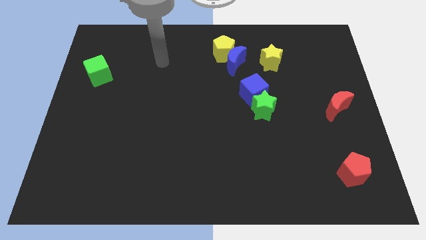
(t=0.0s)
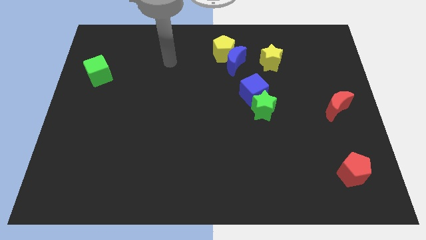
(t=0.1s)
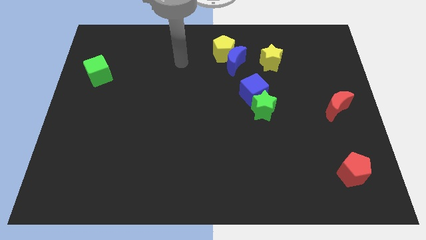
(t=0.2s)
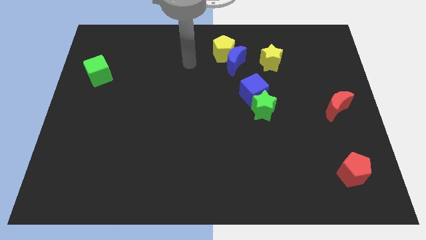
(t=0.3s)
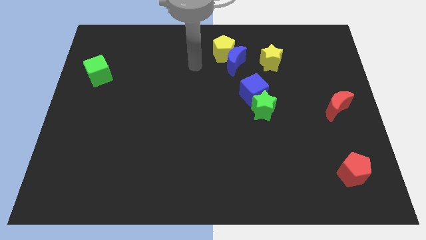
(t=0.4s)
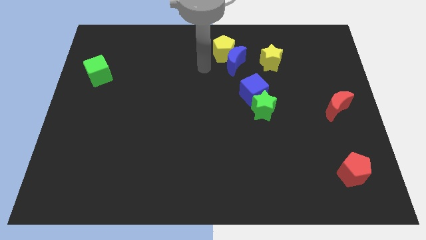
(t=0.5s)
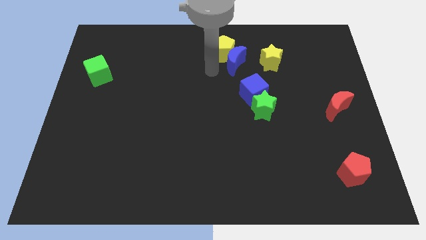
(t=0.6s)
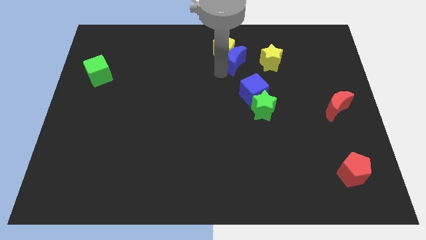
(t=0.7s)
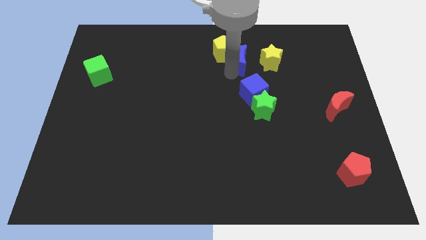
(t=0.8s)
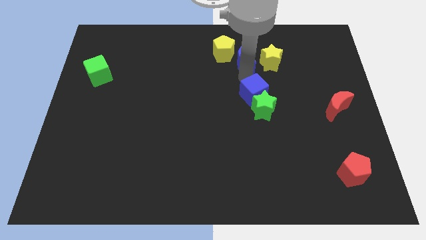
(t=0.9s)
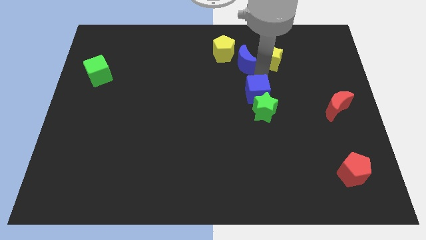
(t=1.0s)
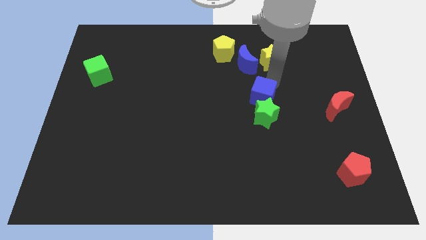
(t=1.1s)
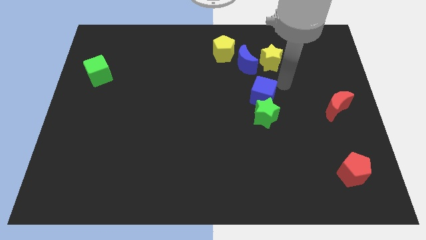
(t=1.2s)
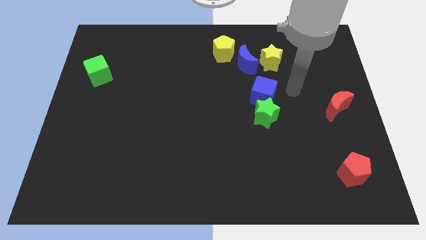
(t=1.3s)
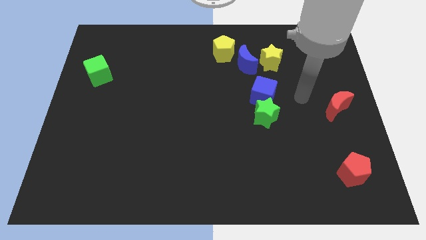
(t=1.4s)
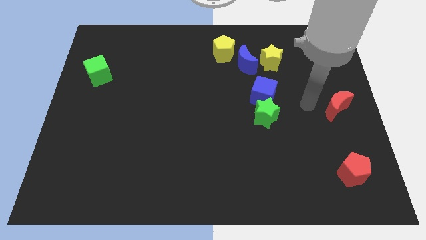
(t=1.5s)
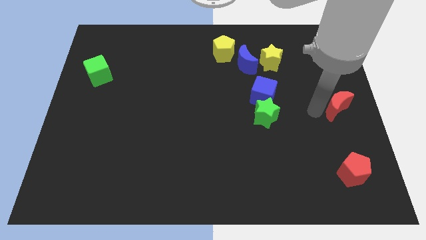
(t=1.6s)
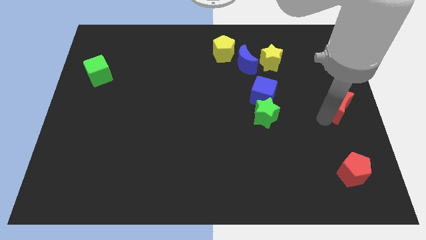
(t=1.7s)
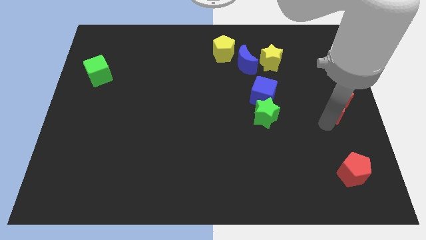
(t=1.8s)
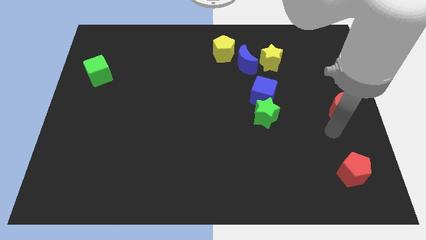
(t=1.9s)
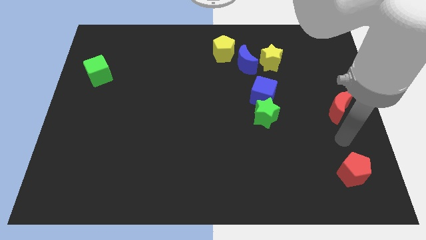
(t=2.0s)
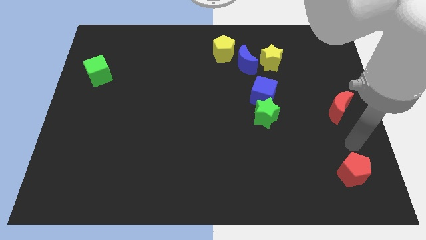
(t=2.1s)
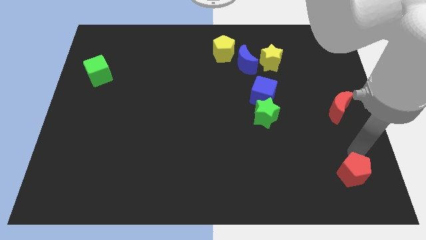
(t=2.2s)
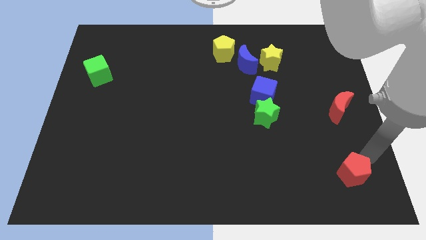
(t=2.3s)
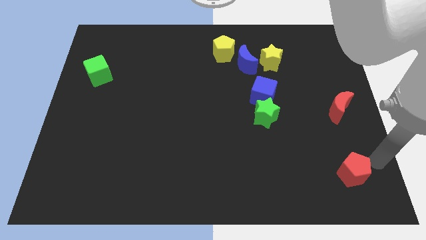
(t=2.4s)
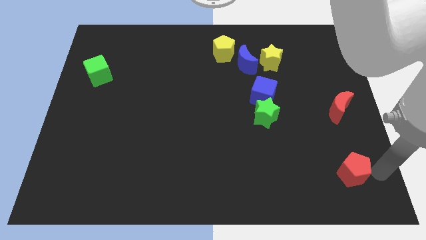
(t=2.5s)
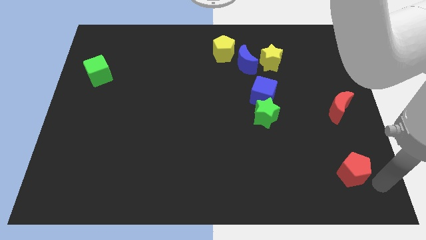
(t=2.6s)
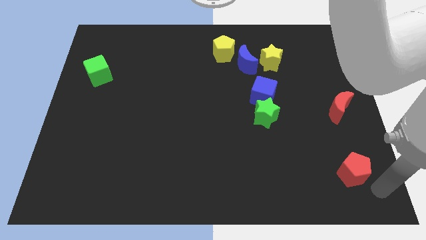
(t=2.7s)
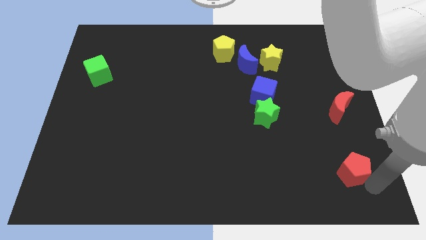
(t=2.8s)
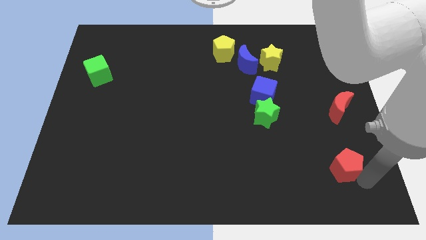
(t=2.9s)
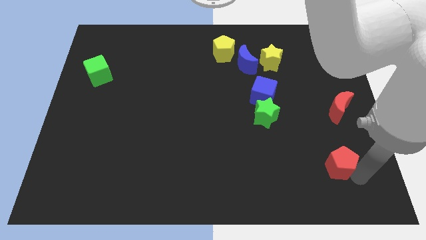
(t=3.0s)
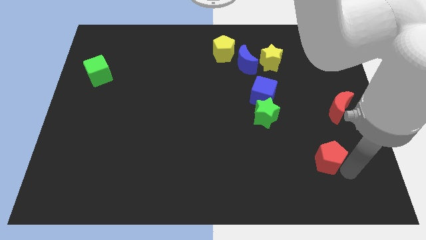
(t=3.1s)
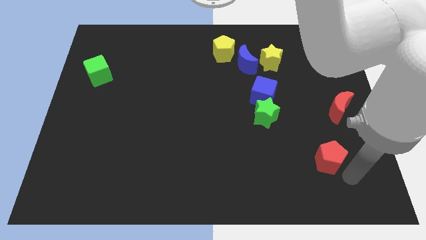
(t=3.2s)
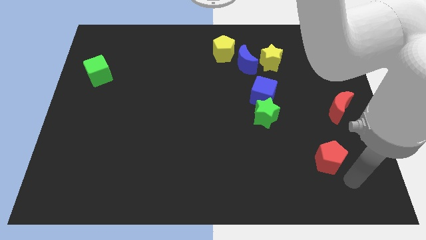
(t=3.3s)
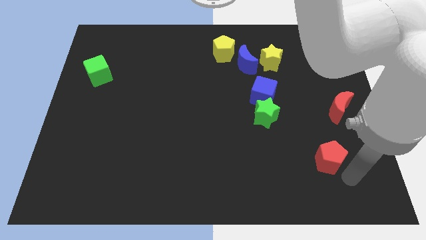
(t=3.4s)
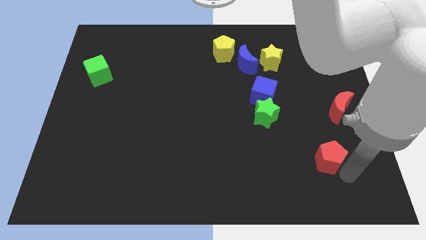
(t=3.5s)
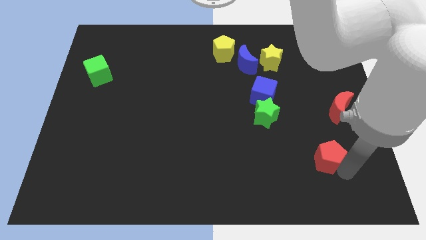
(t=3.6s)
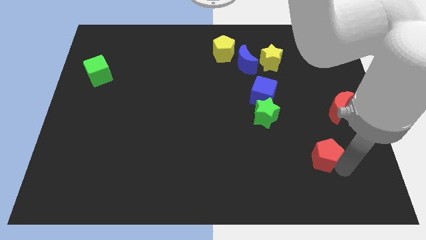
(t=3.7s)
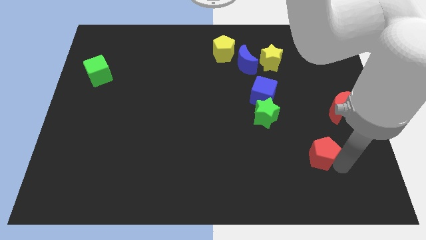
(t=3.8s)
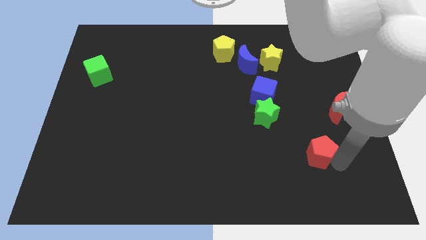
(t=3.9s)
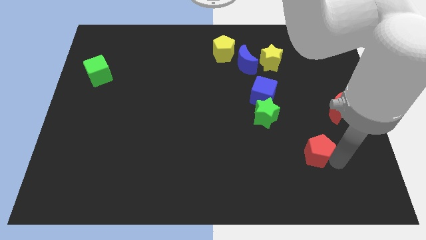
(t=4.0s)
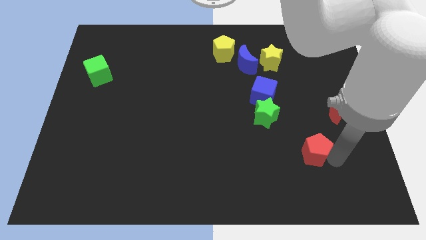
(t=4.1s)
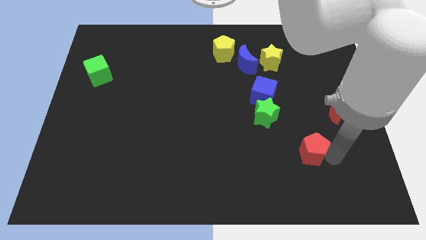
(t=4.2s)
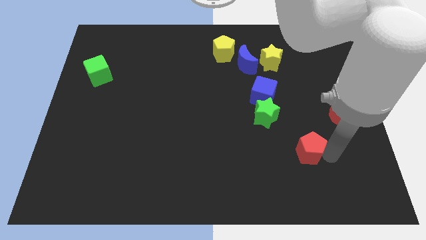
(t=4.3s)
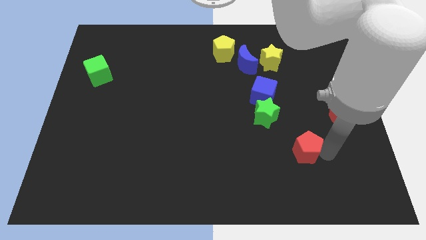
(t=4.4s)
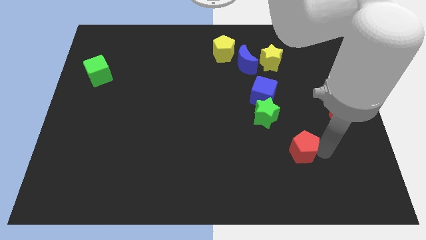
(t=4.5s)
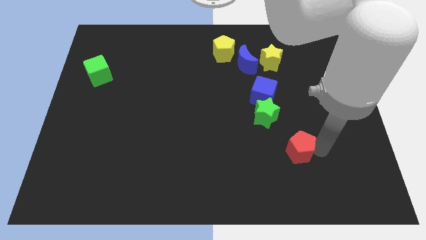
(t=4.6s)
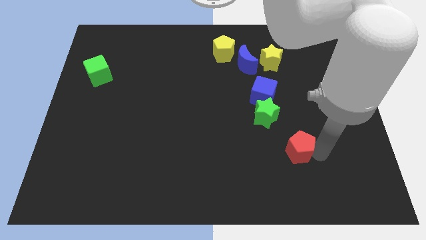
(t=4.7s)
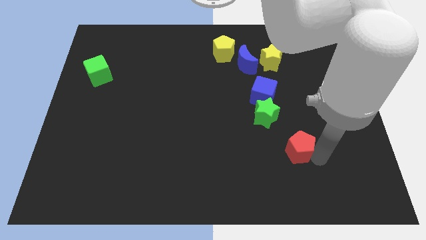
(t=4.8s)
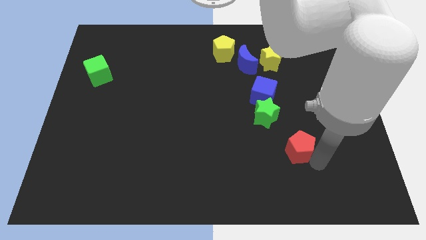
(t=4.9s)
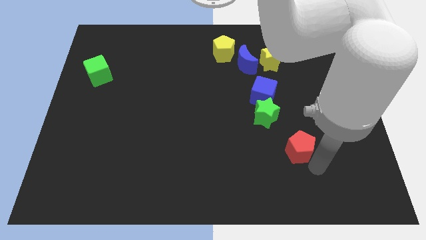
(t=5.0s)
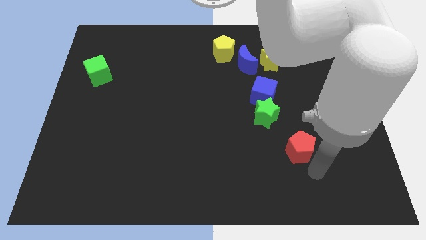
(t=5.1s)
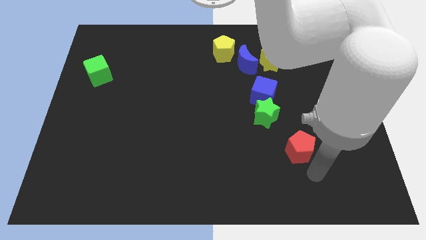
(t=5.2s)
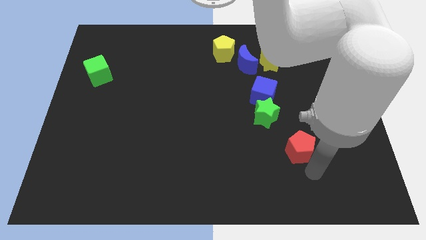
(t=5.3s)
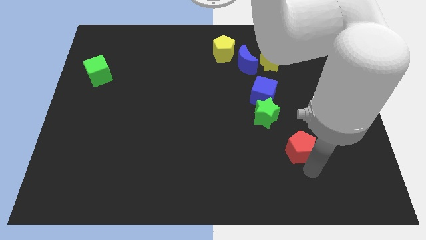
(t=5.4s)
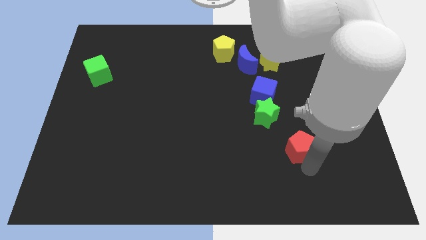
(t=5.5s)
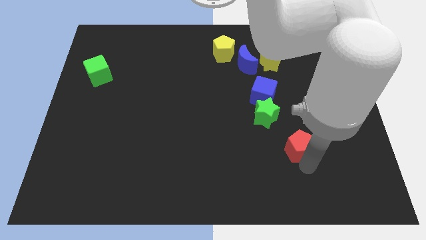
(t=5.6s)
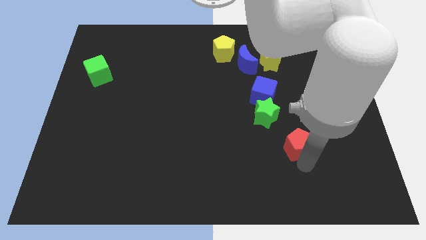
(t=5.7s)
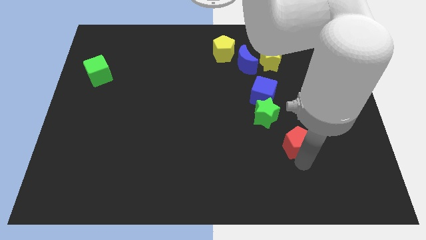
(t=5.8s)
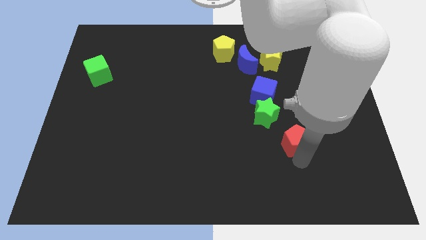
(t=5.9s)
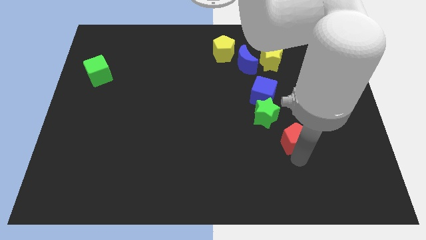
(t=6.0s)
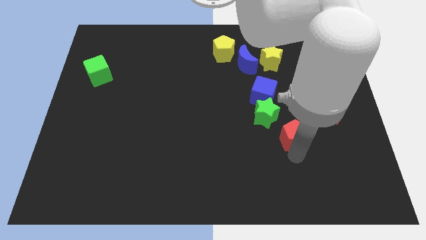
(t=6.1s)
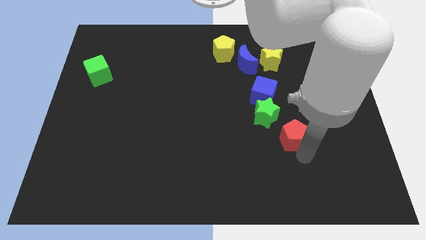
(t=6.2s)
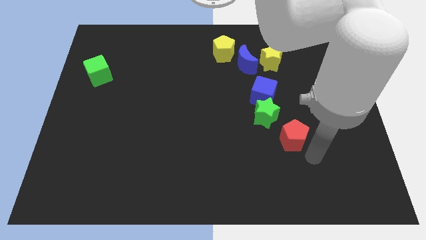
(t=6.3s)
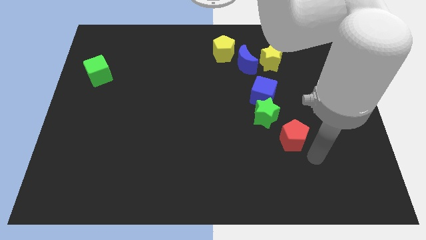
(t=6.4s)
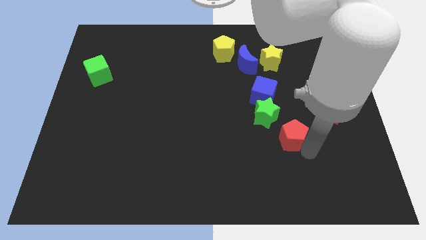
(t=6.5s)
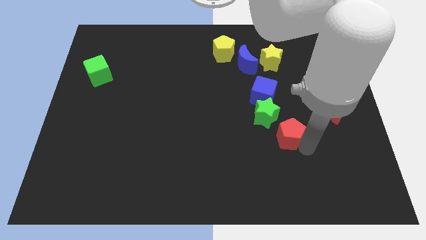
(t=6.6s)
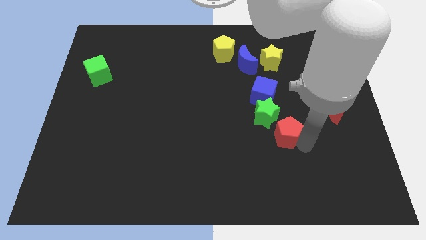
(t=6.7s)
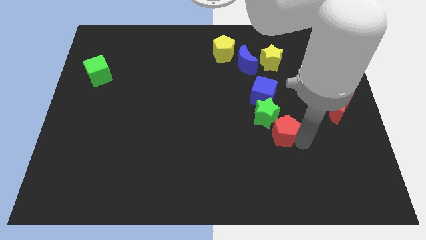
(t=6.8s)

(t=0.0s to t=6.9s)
put the red pentagon towards the green star
